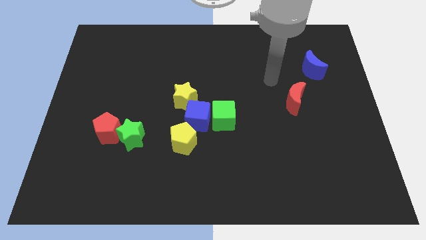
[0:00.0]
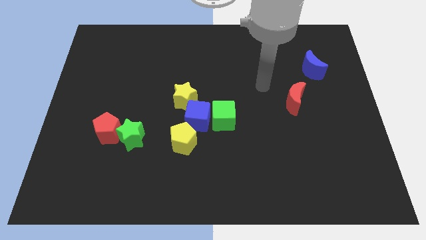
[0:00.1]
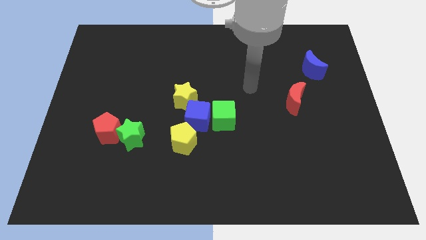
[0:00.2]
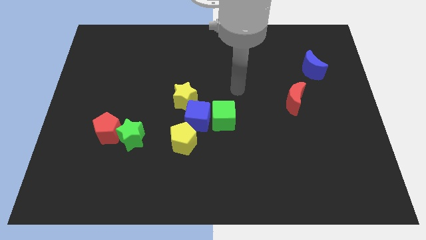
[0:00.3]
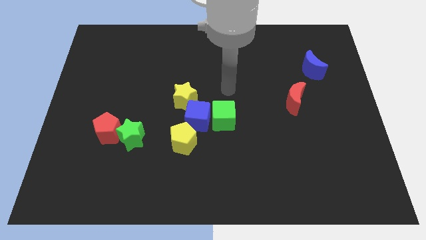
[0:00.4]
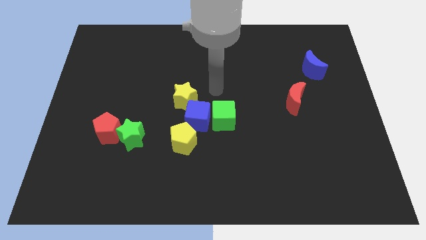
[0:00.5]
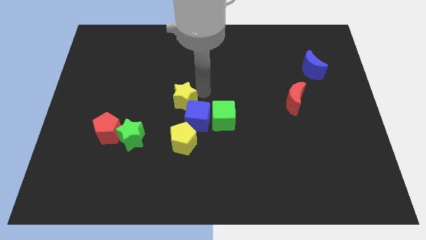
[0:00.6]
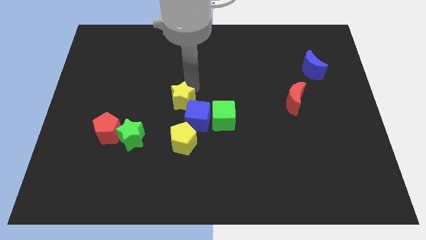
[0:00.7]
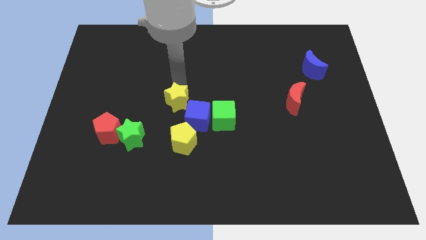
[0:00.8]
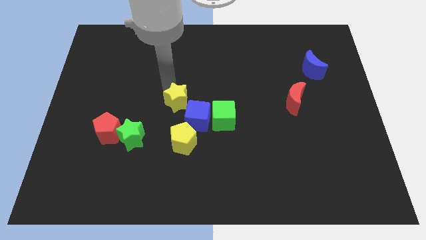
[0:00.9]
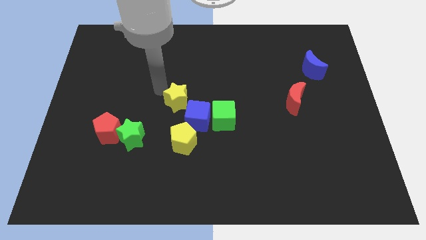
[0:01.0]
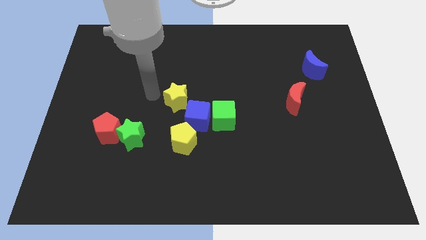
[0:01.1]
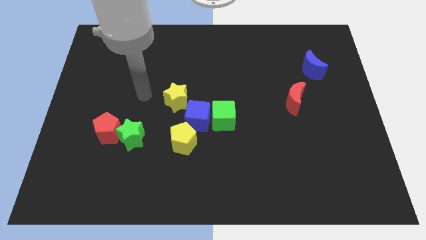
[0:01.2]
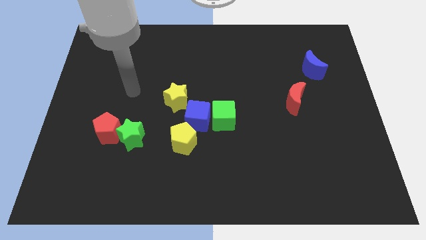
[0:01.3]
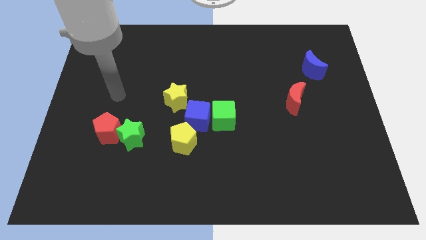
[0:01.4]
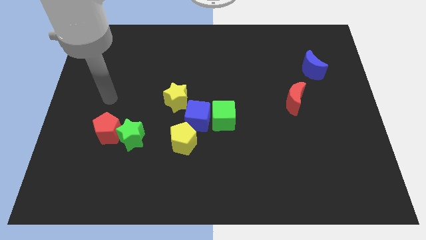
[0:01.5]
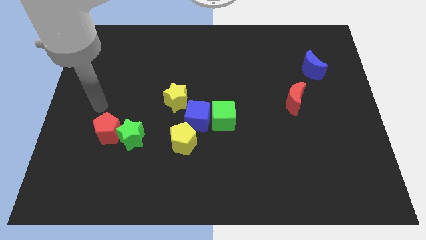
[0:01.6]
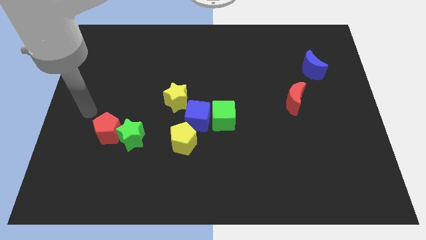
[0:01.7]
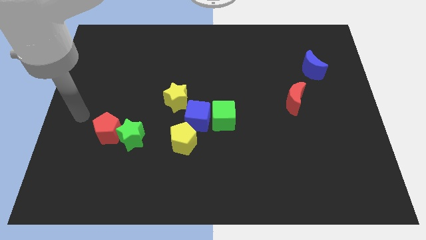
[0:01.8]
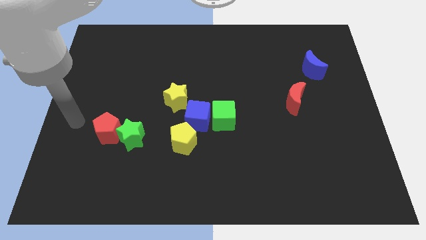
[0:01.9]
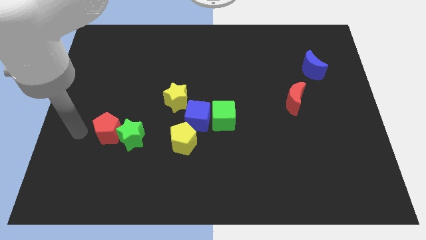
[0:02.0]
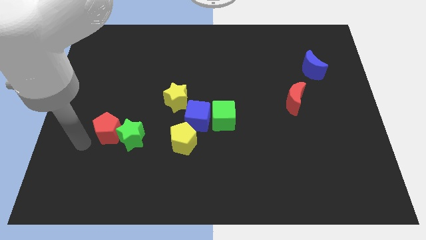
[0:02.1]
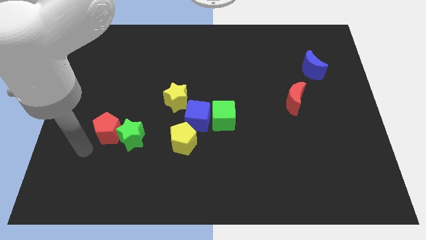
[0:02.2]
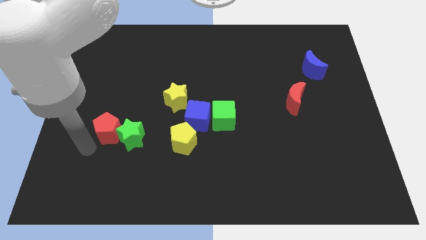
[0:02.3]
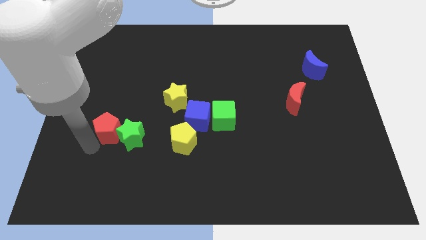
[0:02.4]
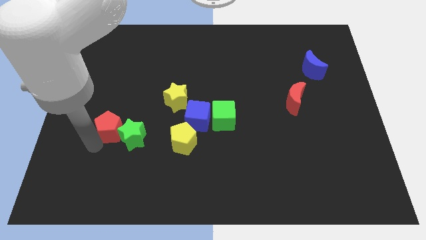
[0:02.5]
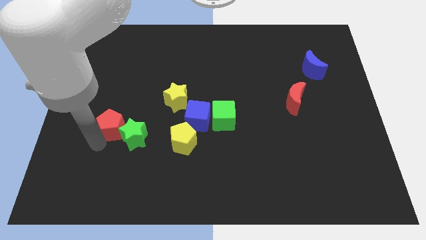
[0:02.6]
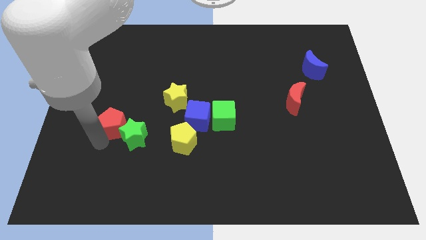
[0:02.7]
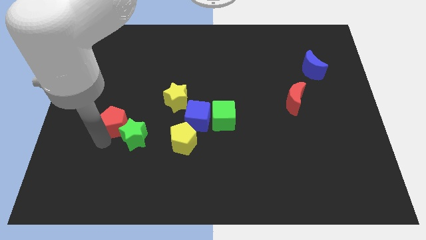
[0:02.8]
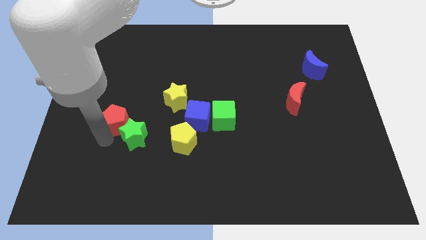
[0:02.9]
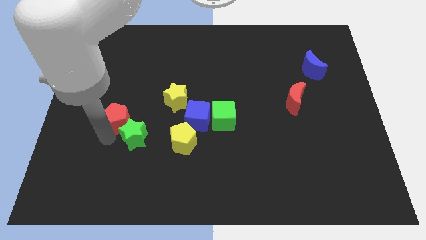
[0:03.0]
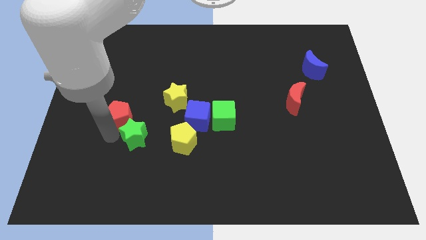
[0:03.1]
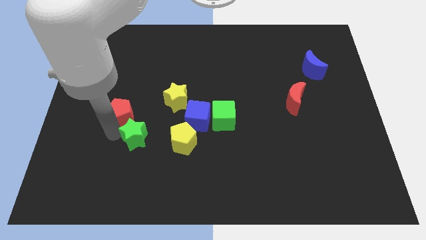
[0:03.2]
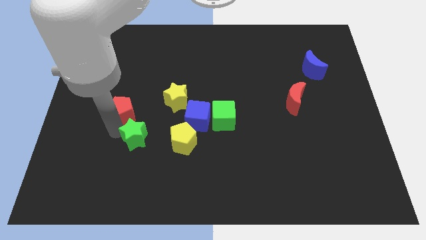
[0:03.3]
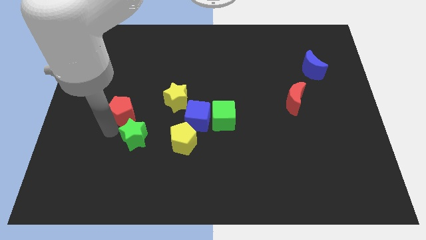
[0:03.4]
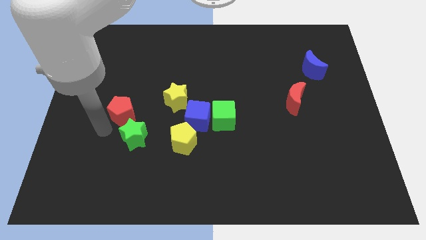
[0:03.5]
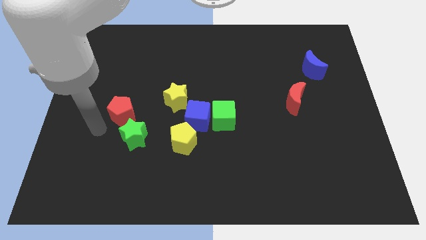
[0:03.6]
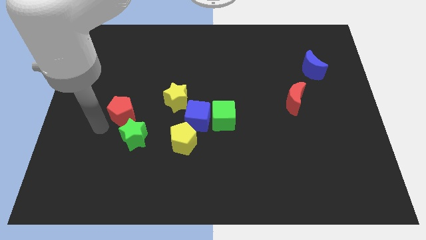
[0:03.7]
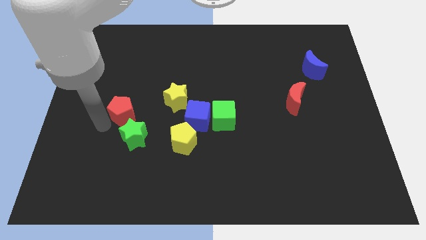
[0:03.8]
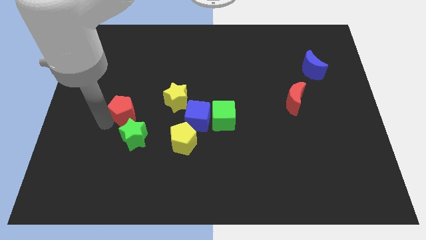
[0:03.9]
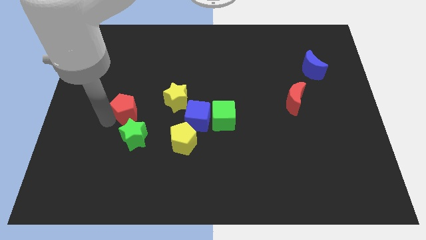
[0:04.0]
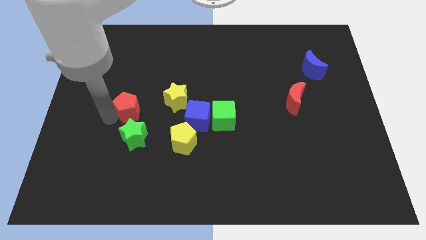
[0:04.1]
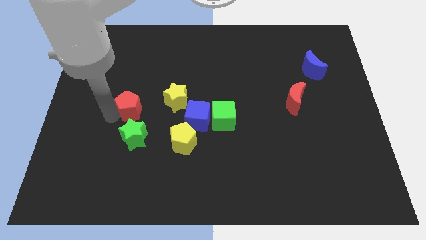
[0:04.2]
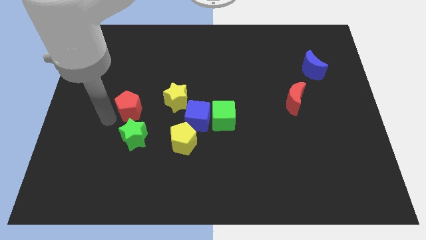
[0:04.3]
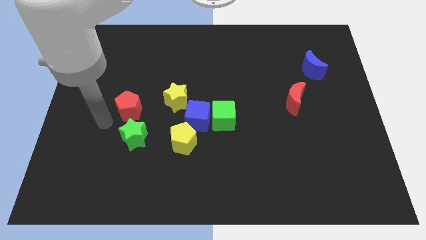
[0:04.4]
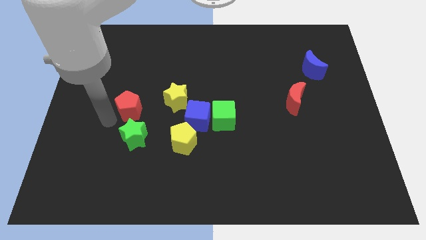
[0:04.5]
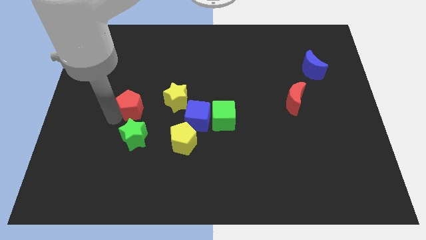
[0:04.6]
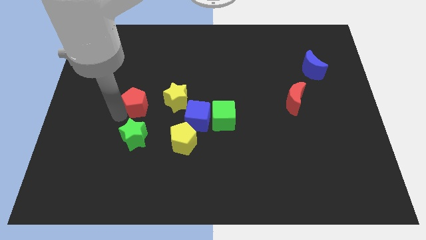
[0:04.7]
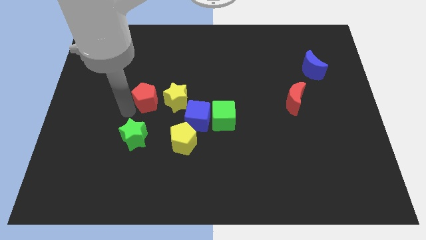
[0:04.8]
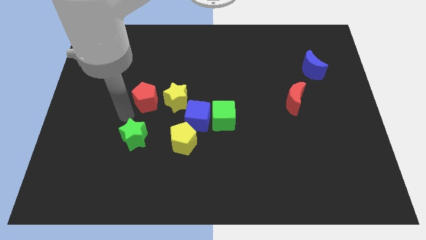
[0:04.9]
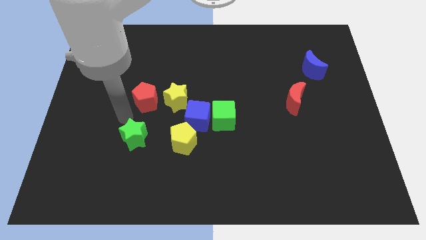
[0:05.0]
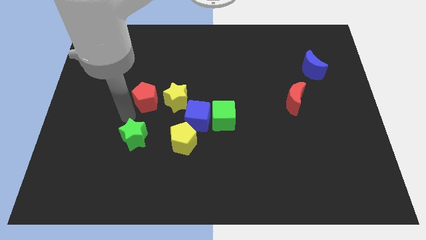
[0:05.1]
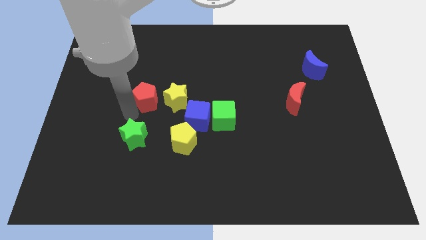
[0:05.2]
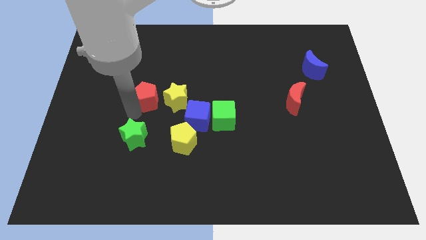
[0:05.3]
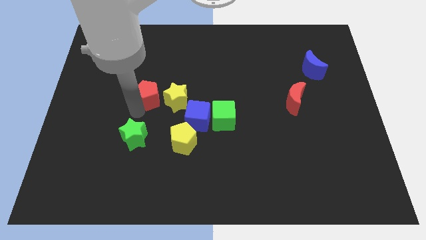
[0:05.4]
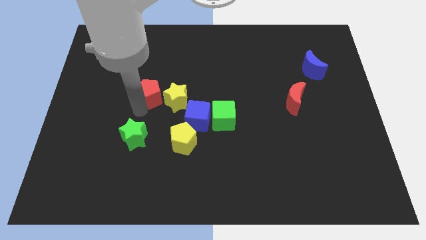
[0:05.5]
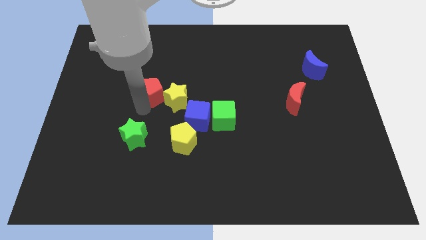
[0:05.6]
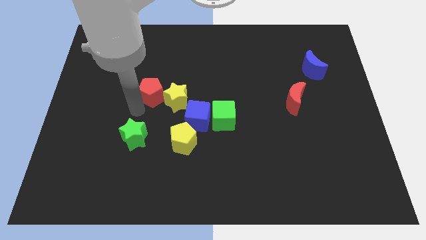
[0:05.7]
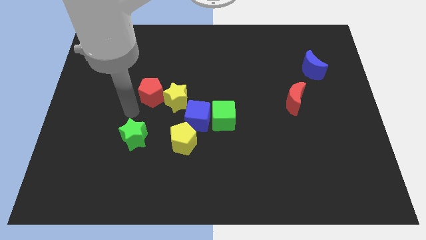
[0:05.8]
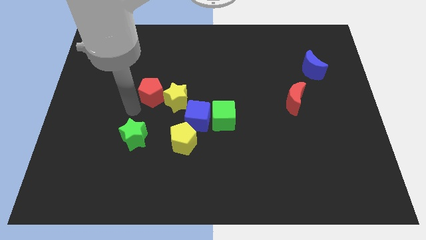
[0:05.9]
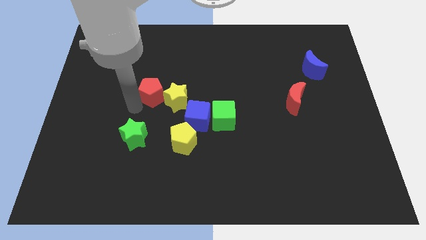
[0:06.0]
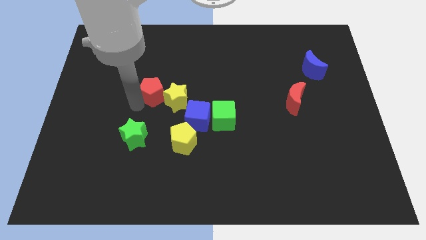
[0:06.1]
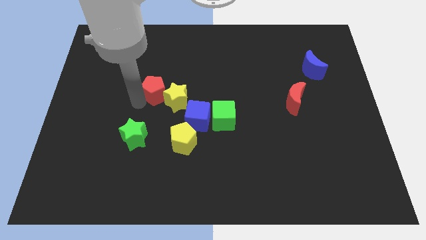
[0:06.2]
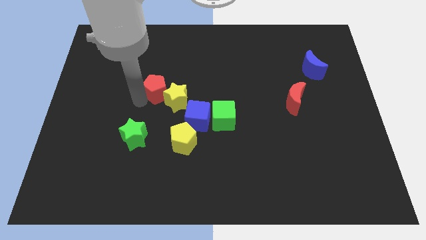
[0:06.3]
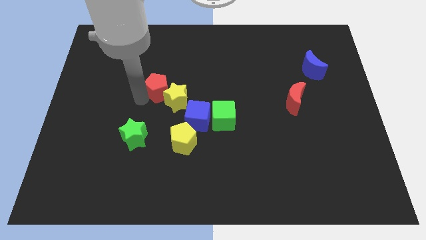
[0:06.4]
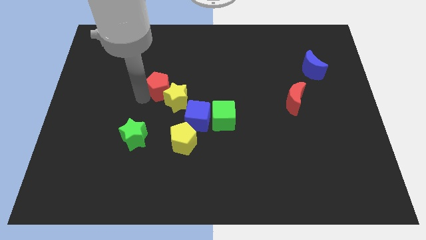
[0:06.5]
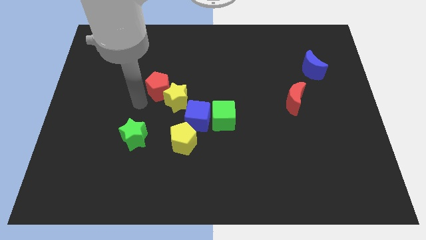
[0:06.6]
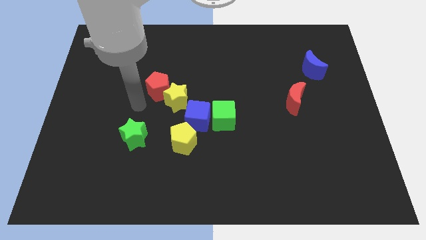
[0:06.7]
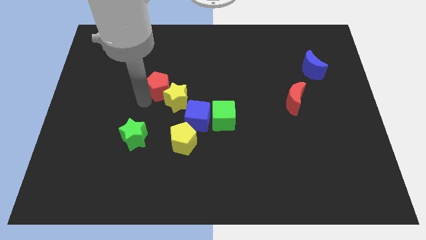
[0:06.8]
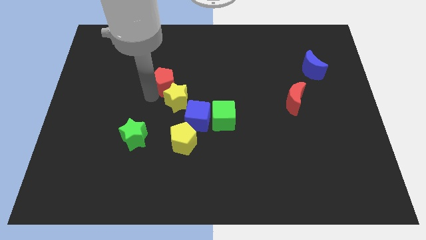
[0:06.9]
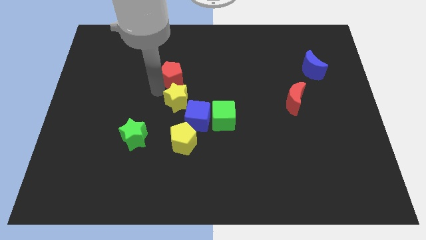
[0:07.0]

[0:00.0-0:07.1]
push the red pentagon up and then right

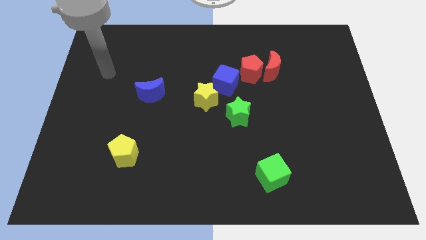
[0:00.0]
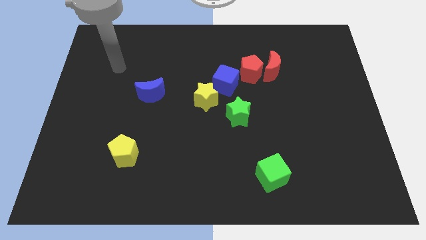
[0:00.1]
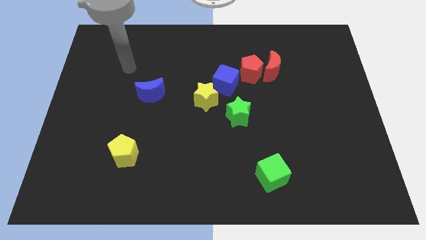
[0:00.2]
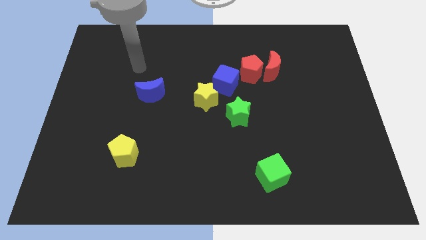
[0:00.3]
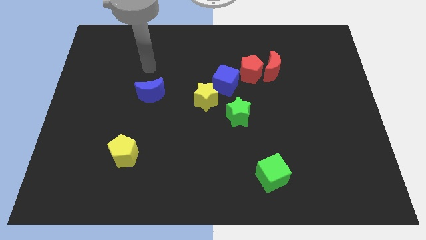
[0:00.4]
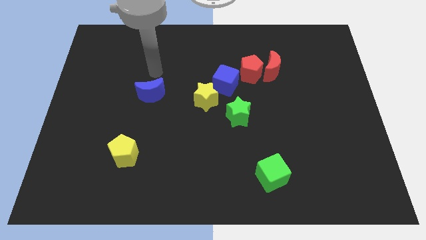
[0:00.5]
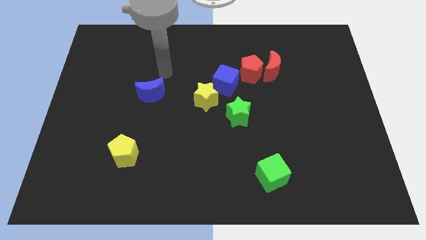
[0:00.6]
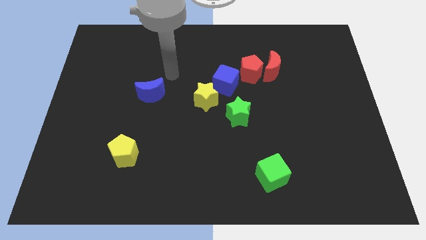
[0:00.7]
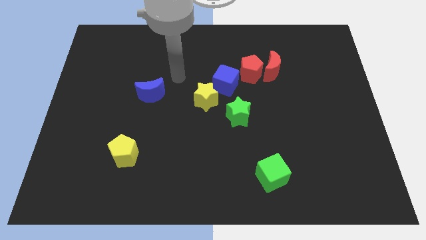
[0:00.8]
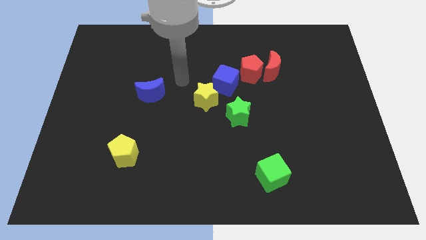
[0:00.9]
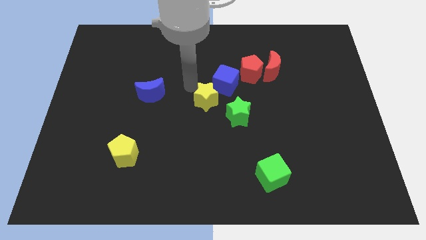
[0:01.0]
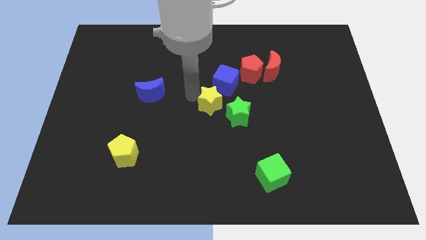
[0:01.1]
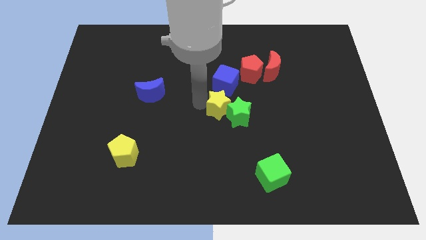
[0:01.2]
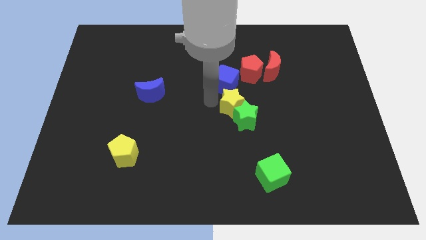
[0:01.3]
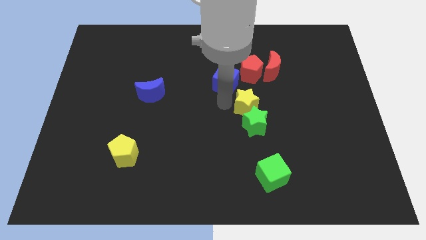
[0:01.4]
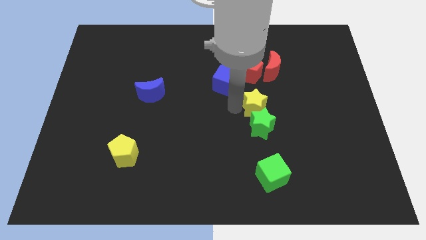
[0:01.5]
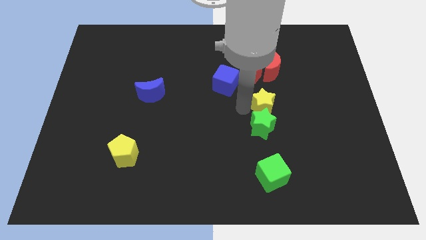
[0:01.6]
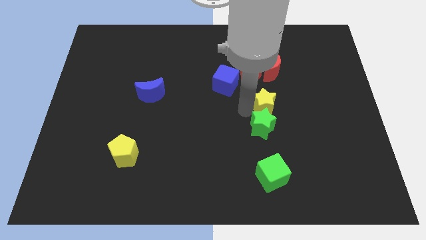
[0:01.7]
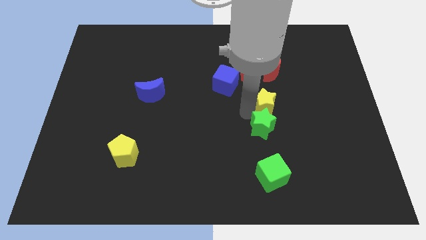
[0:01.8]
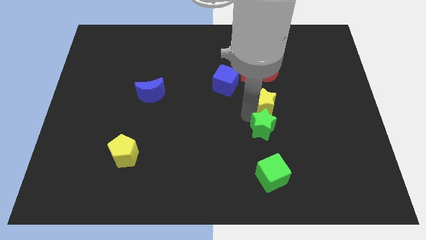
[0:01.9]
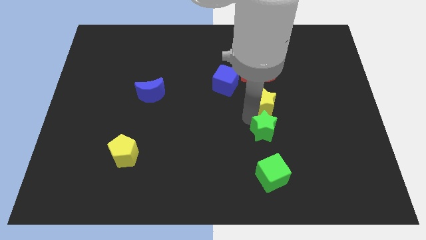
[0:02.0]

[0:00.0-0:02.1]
move the green star somewhat diagonally downwards and to the right
